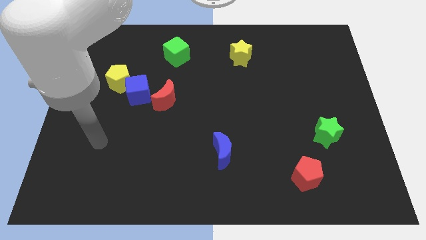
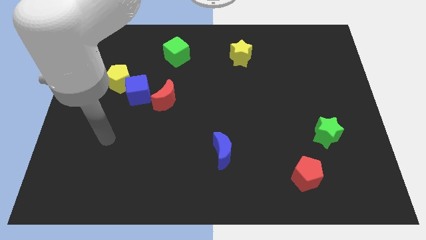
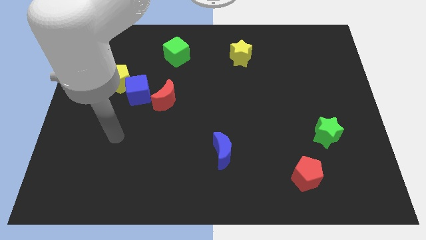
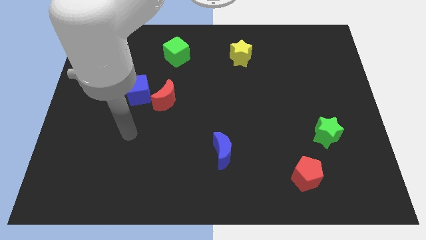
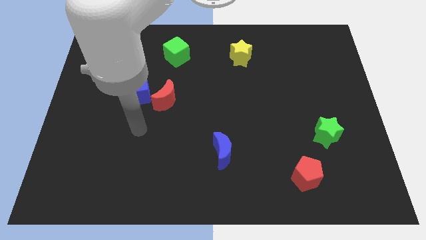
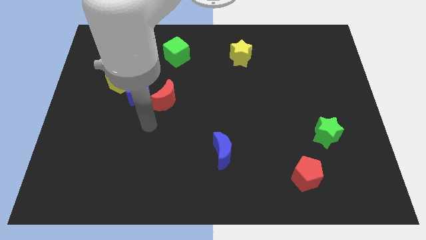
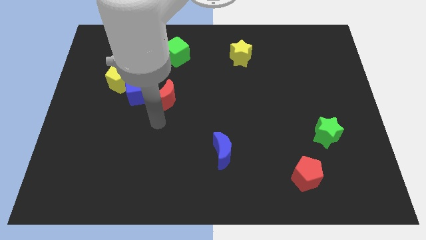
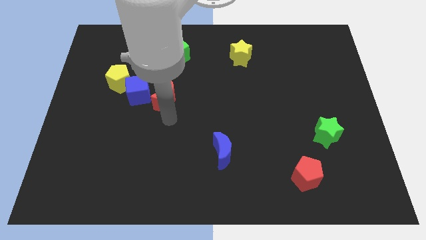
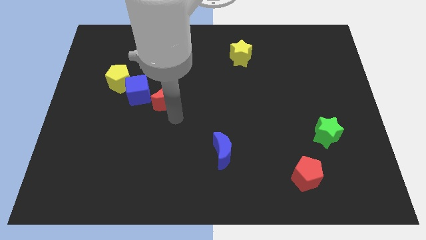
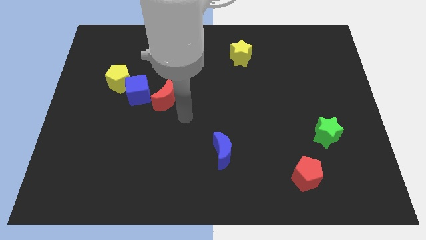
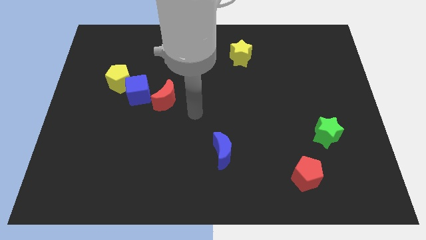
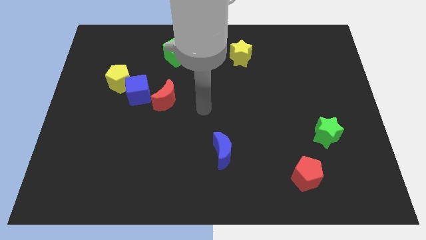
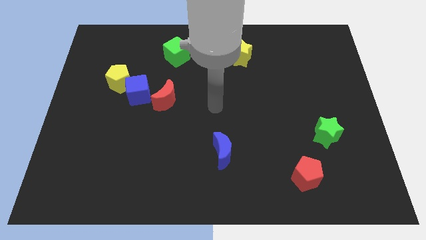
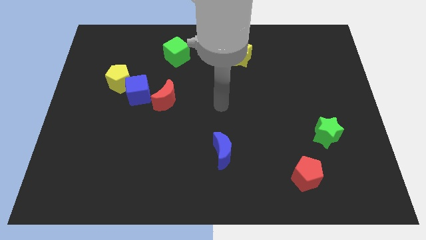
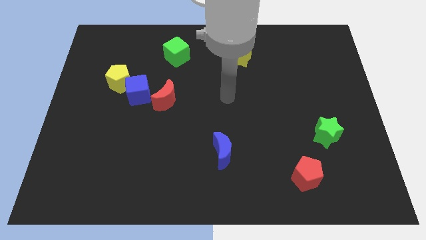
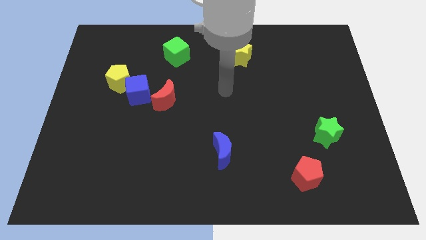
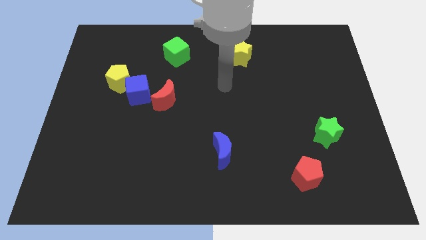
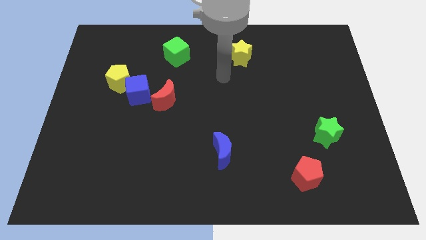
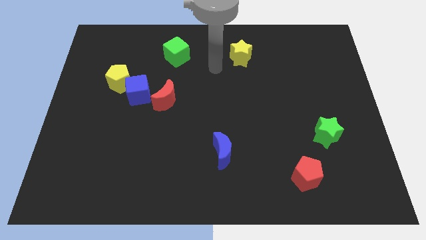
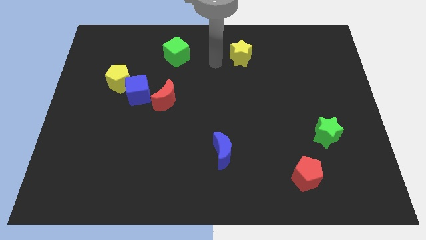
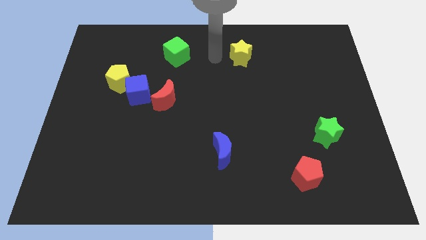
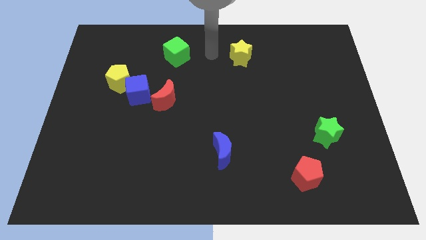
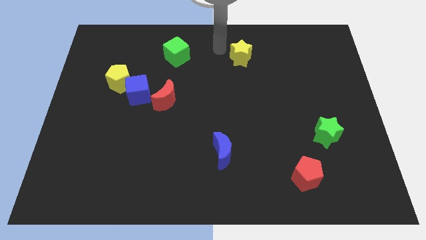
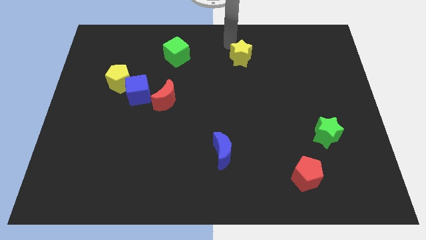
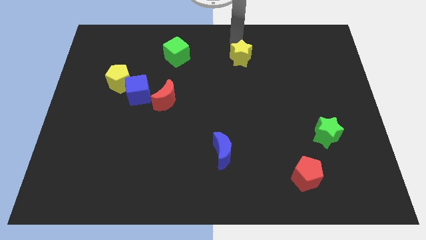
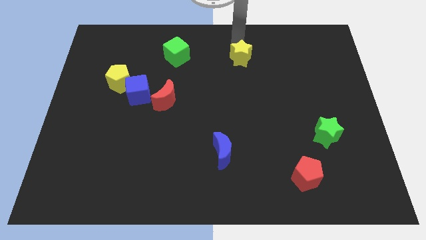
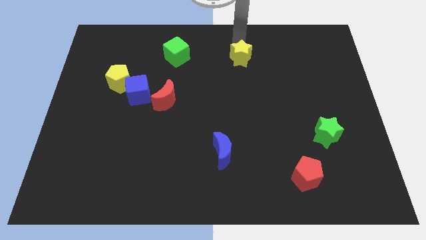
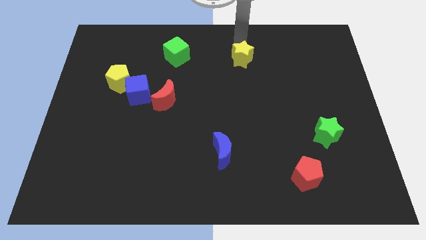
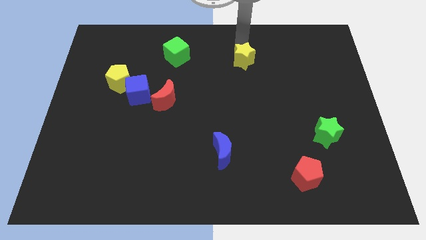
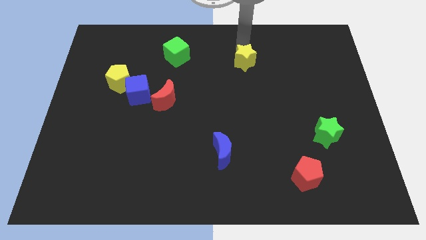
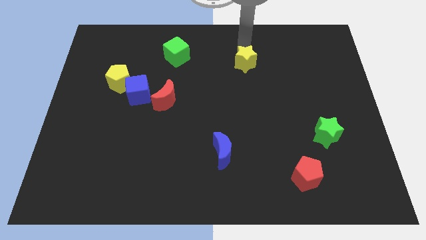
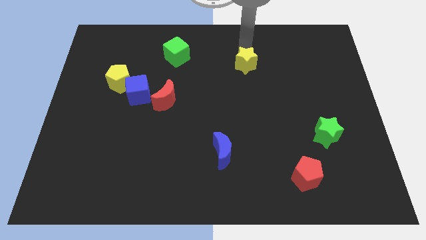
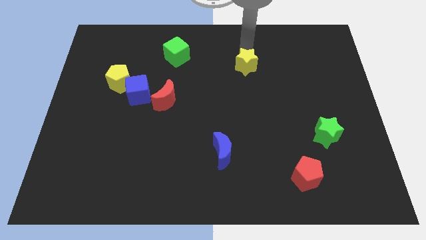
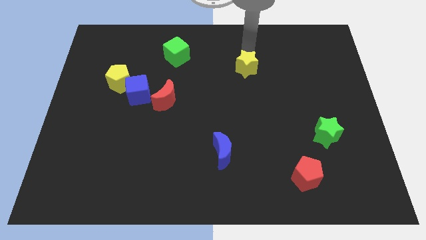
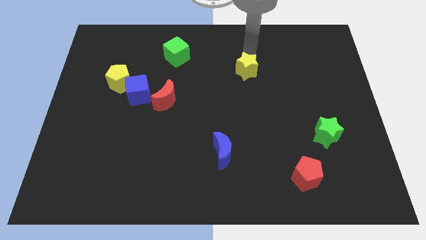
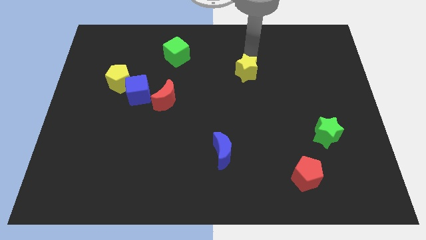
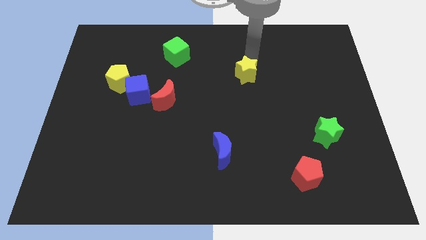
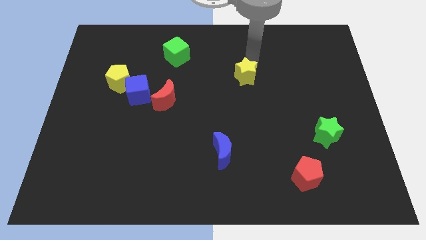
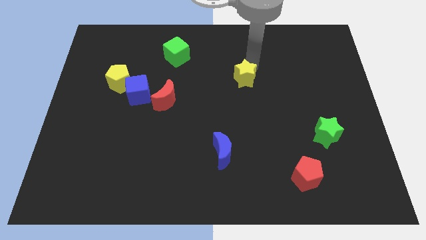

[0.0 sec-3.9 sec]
push the yellow star somewhat downwards

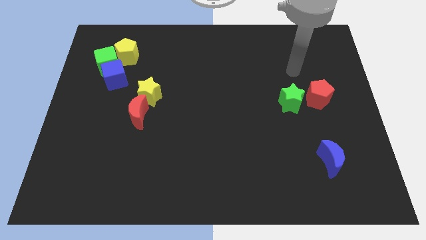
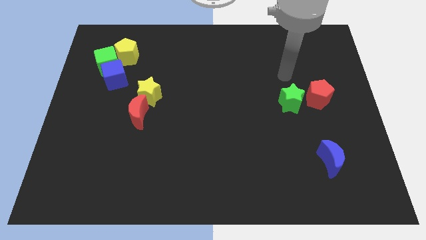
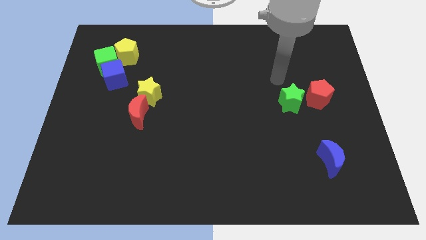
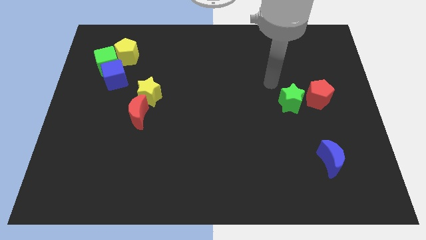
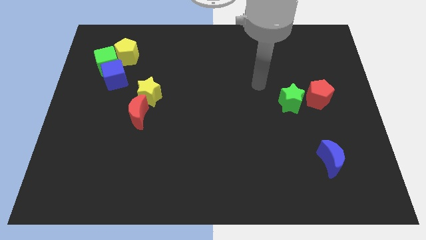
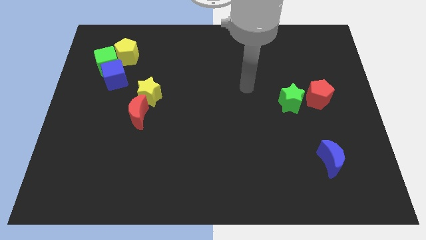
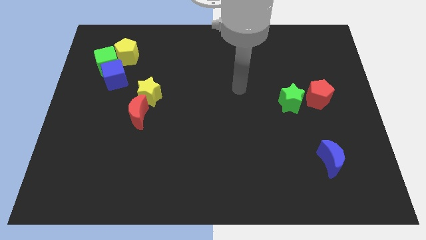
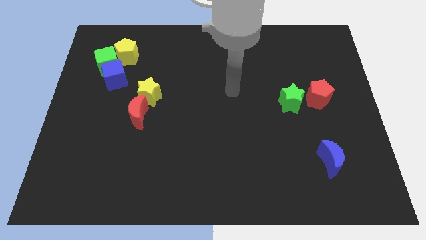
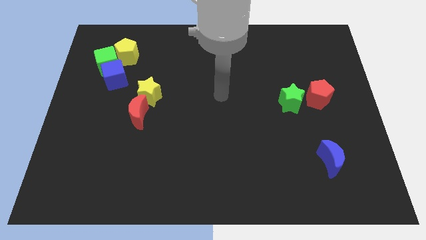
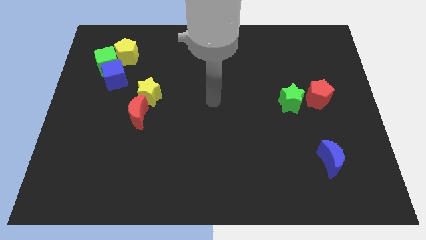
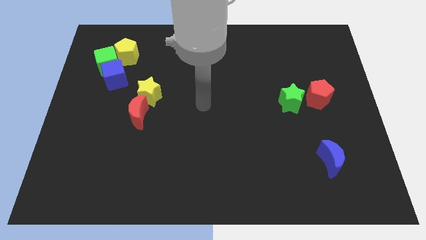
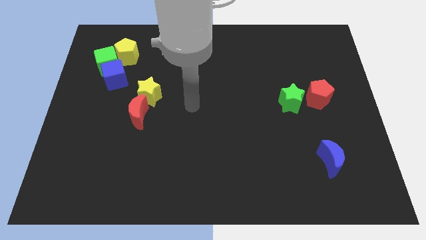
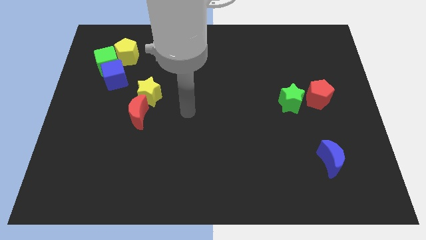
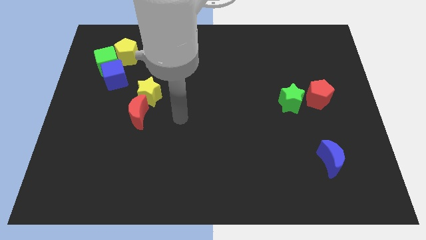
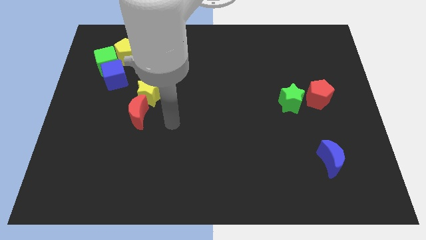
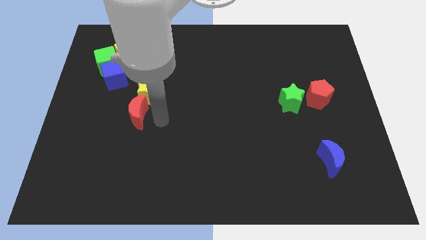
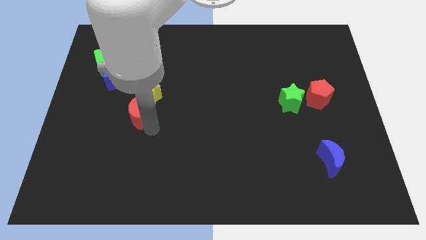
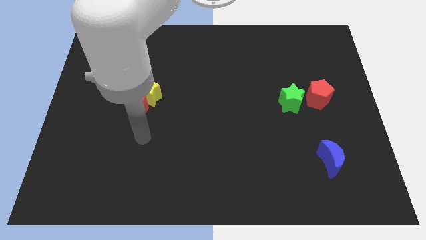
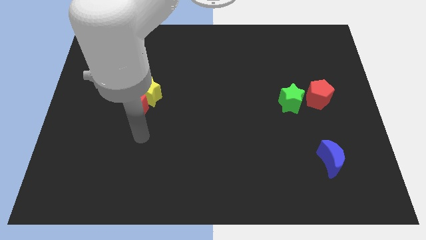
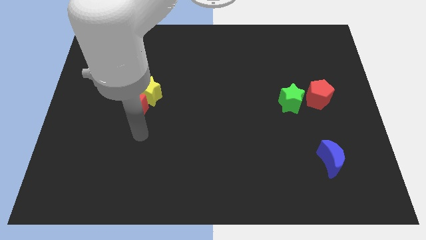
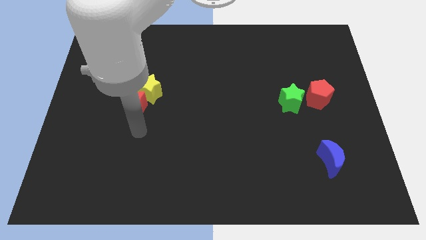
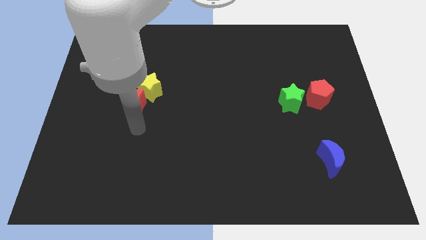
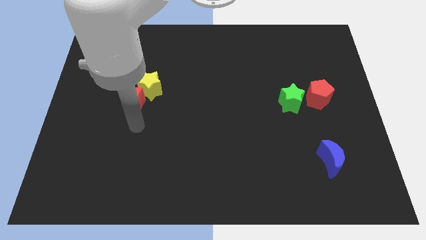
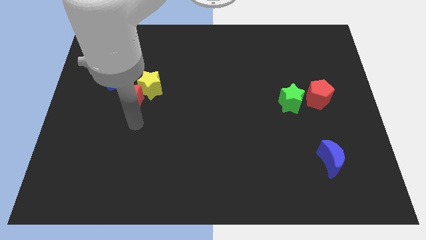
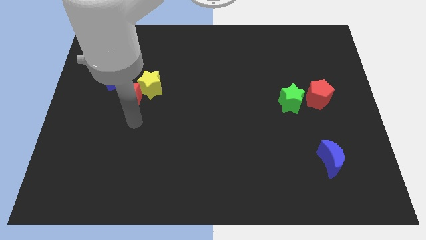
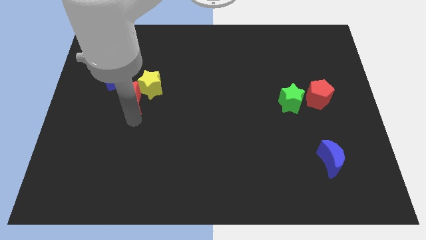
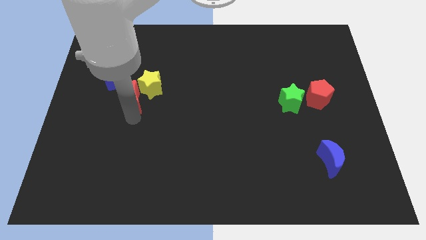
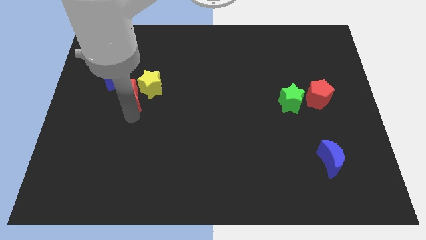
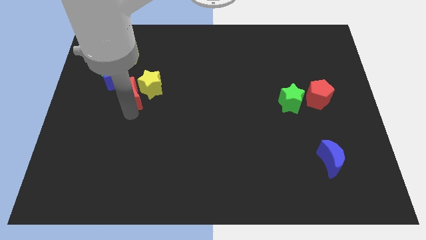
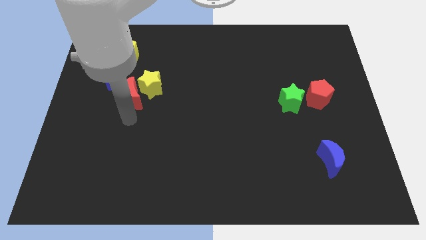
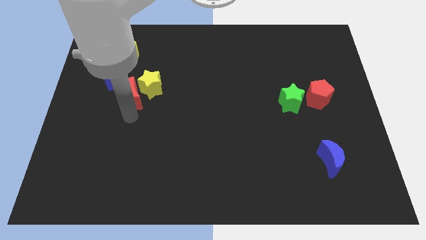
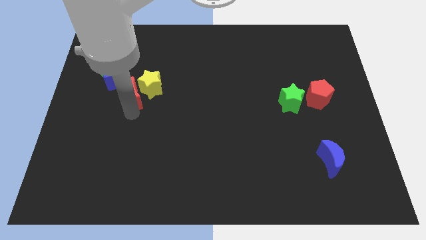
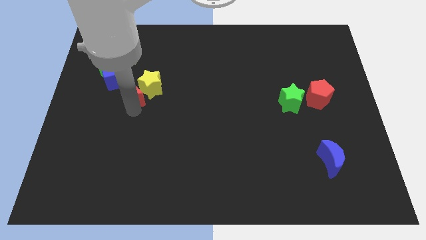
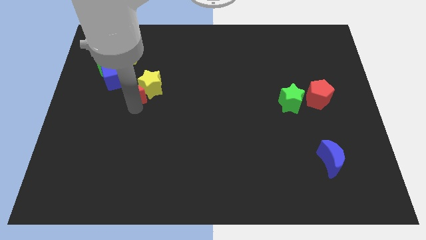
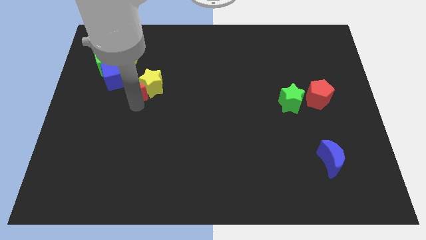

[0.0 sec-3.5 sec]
move the red moon somewhat up

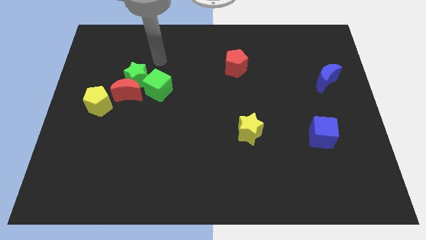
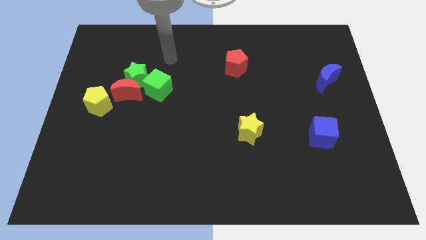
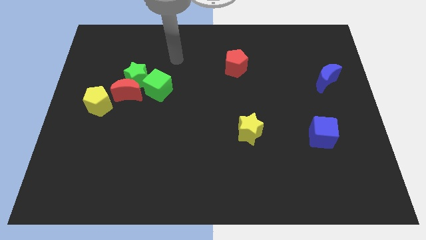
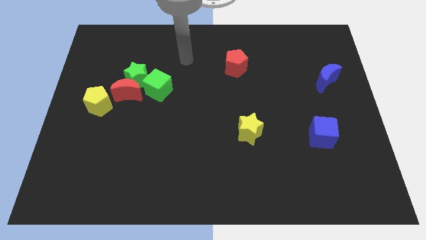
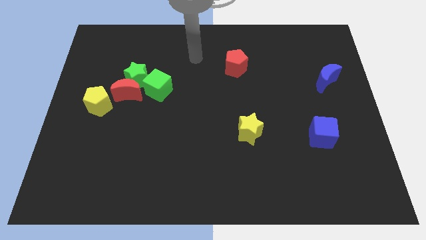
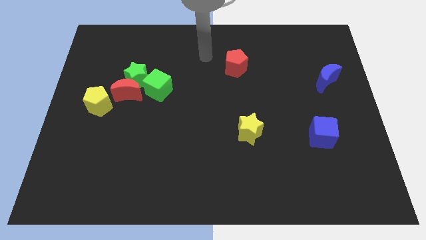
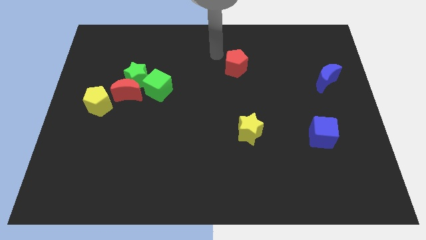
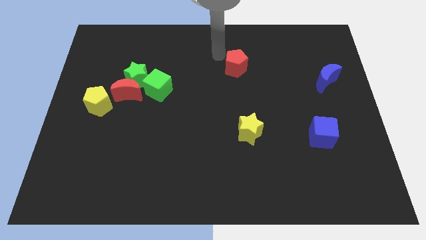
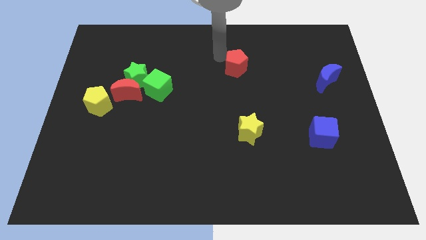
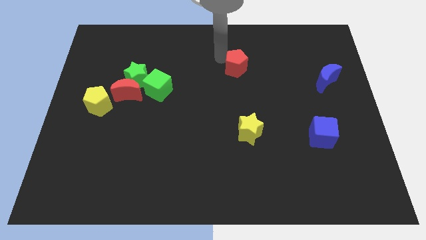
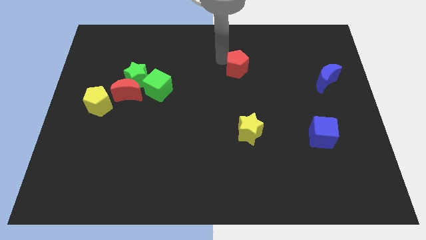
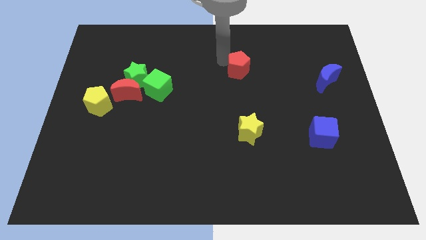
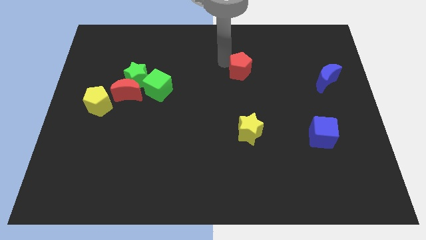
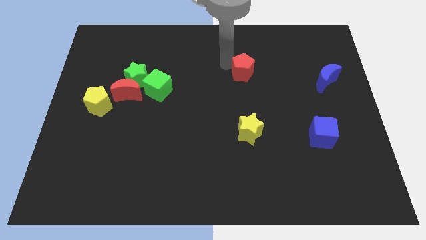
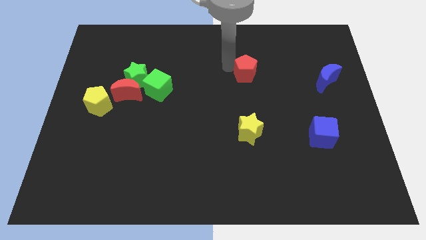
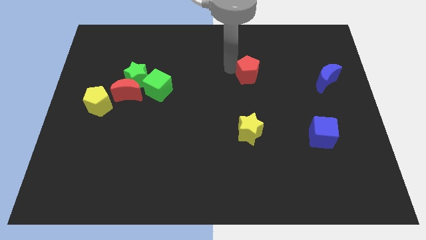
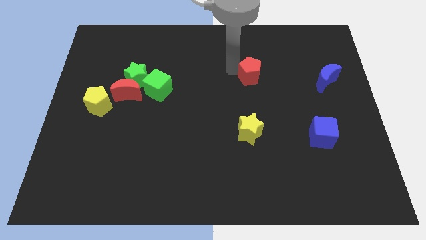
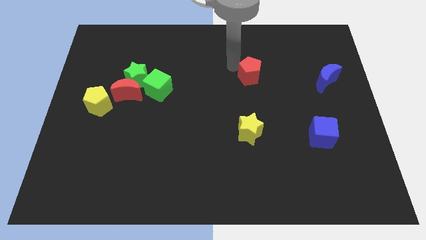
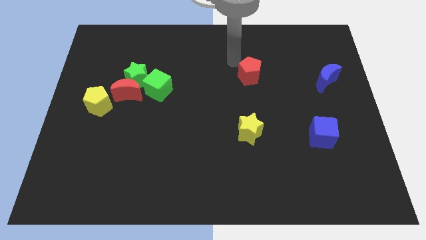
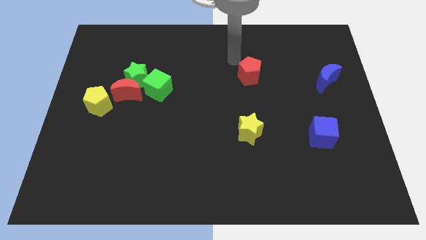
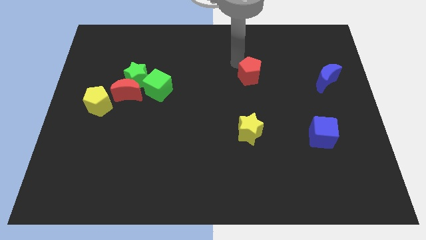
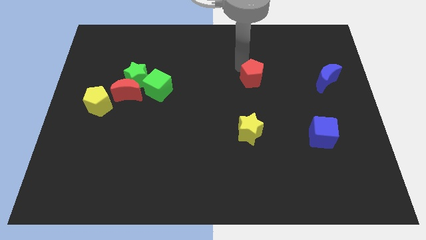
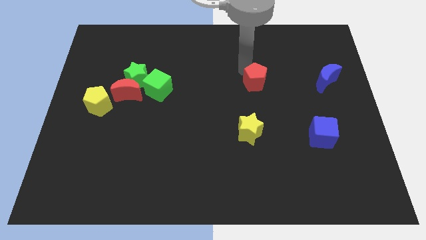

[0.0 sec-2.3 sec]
move the red pentagon diagonally downwards and right slightly
